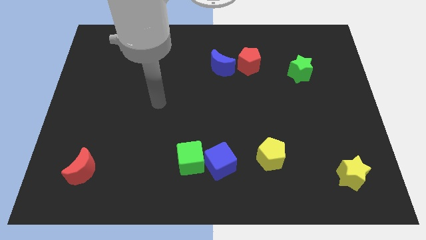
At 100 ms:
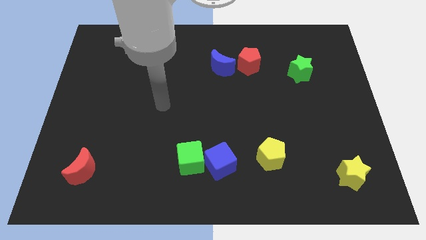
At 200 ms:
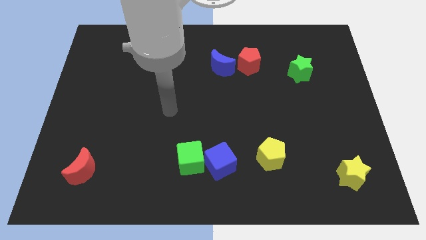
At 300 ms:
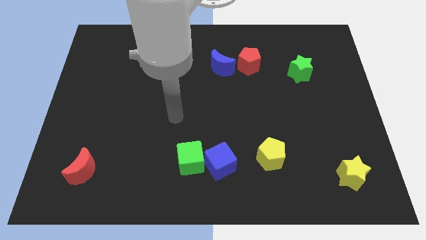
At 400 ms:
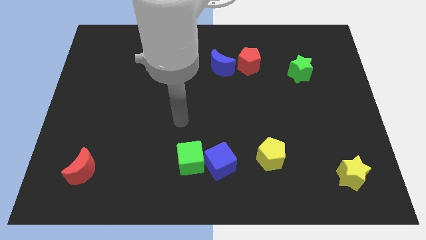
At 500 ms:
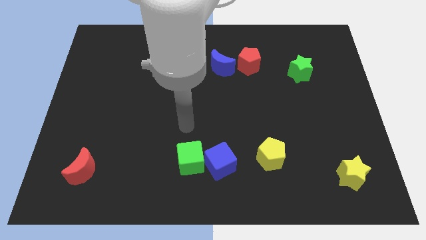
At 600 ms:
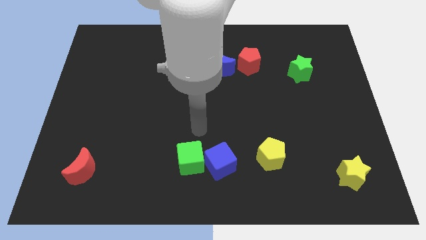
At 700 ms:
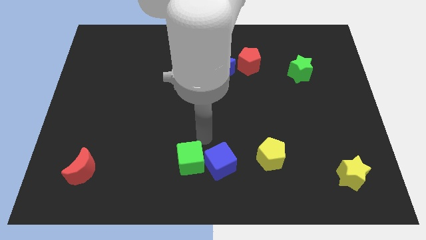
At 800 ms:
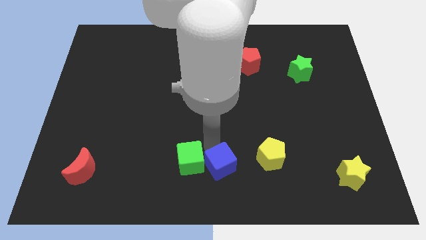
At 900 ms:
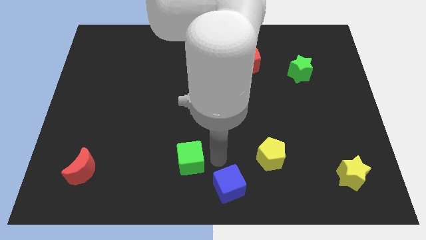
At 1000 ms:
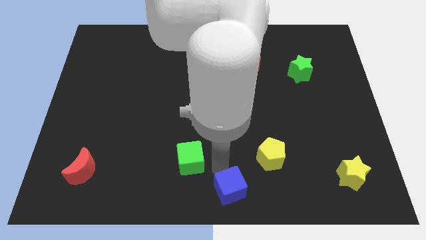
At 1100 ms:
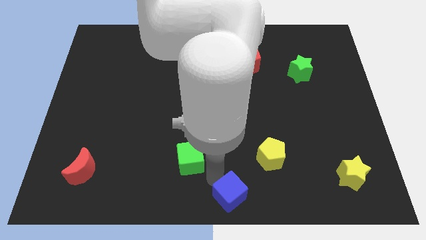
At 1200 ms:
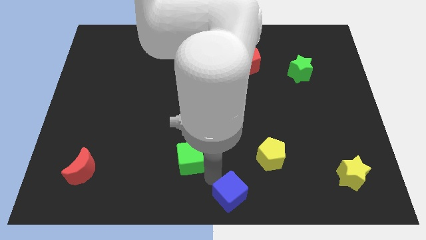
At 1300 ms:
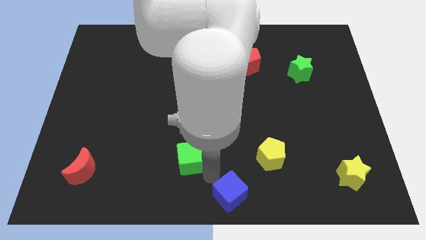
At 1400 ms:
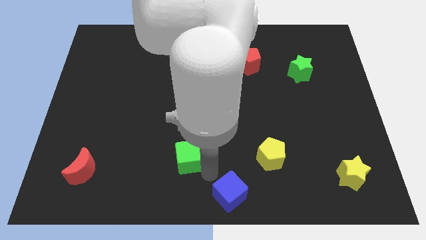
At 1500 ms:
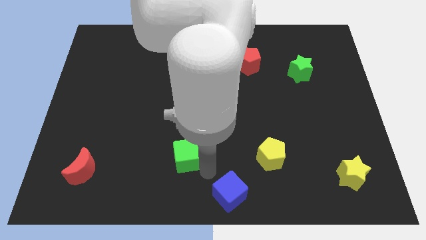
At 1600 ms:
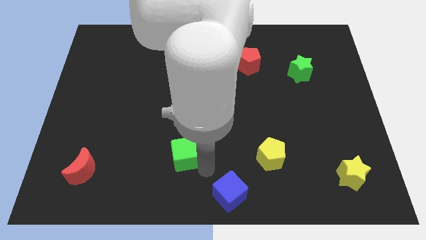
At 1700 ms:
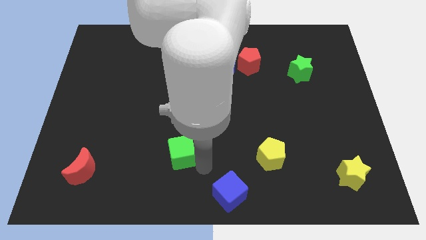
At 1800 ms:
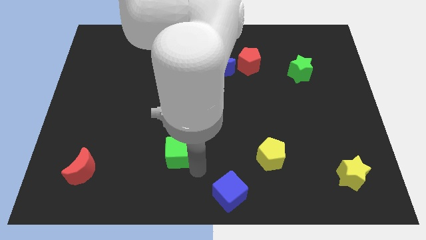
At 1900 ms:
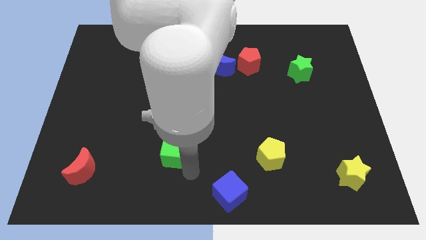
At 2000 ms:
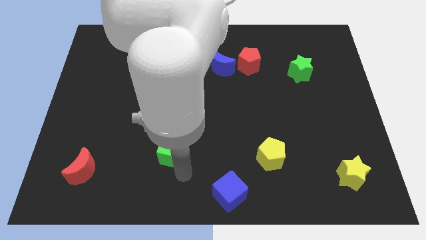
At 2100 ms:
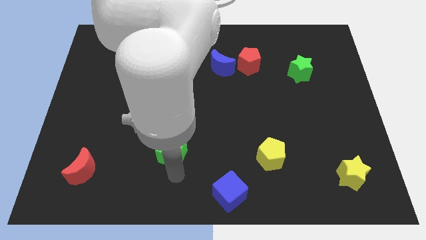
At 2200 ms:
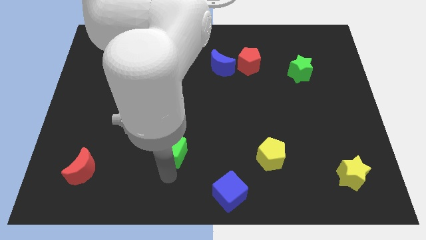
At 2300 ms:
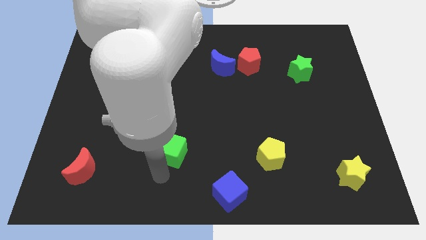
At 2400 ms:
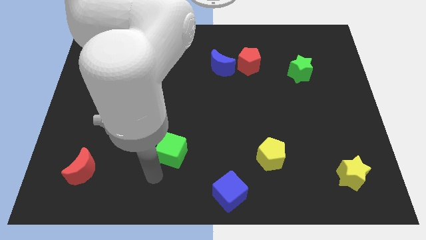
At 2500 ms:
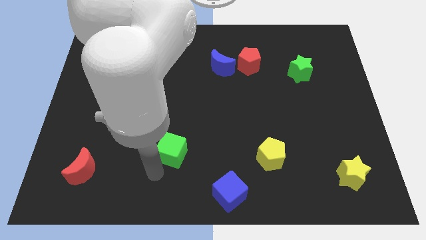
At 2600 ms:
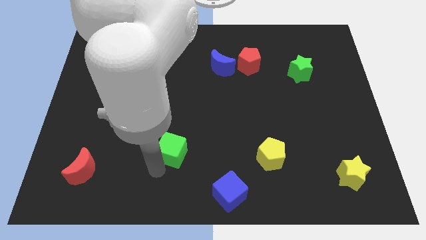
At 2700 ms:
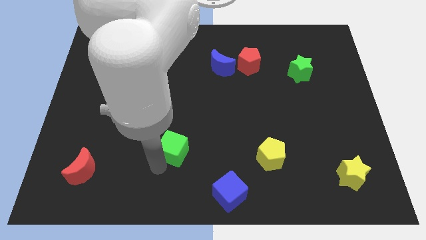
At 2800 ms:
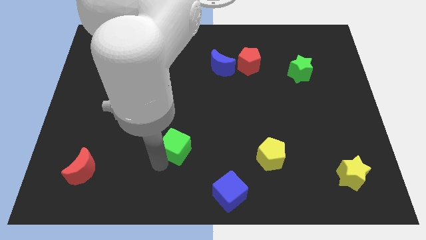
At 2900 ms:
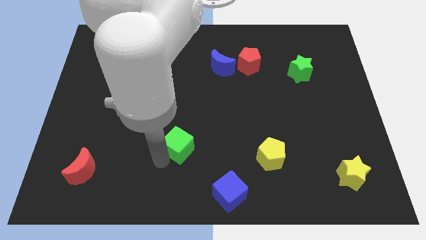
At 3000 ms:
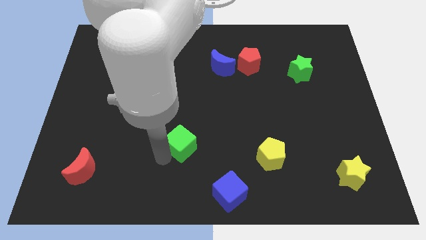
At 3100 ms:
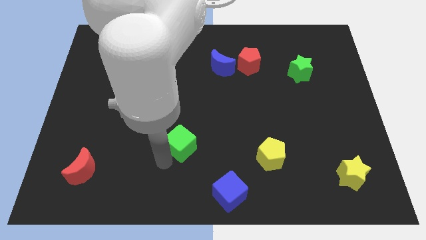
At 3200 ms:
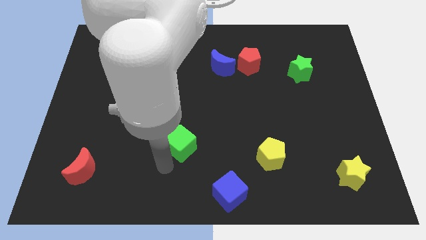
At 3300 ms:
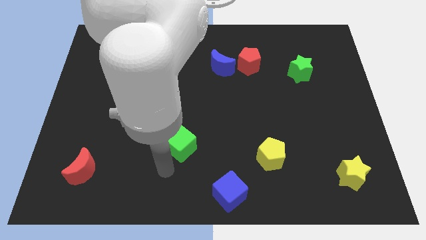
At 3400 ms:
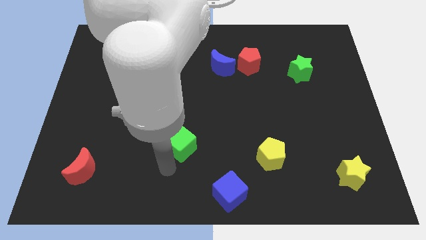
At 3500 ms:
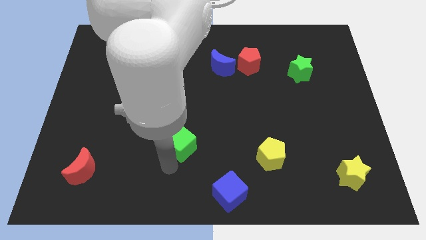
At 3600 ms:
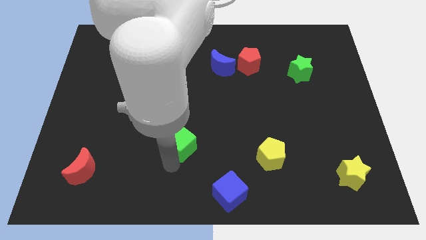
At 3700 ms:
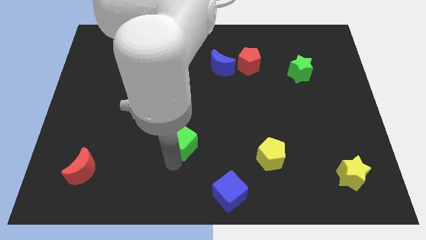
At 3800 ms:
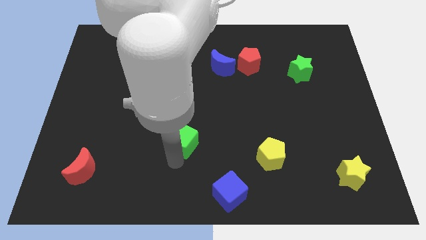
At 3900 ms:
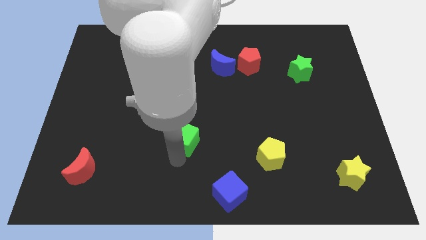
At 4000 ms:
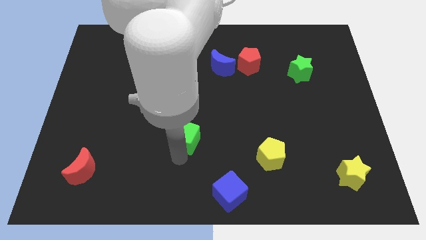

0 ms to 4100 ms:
move the green cube to the middle of the board

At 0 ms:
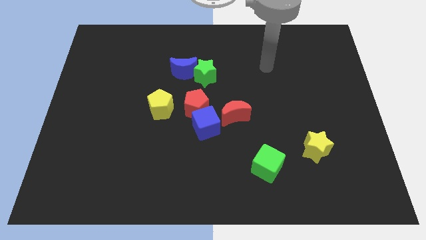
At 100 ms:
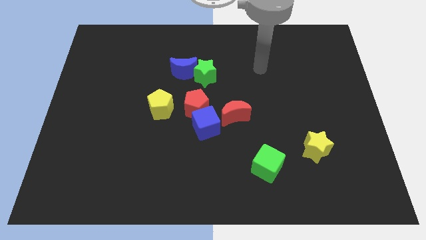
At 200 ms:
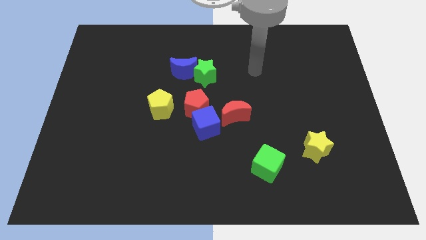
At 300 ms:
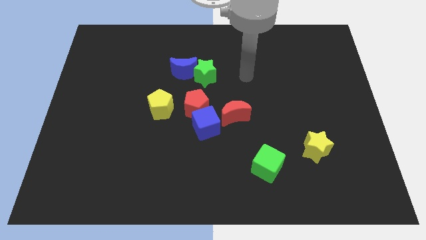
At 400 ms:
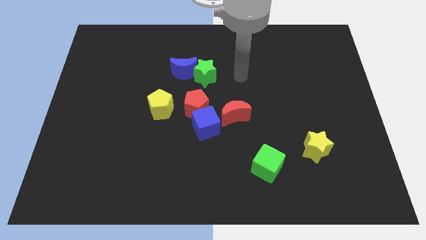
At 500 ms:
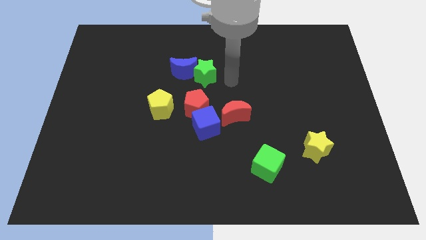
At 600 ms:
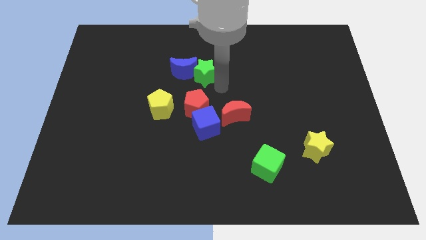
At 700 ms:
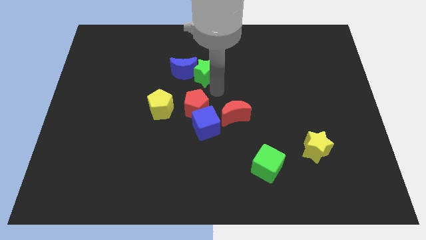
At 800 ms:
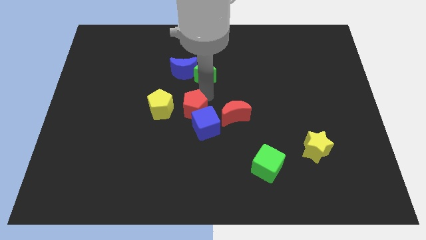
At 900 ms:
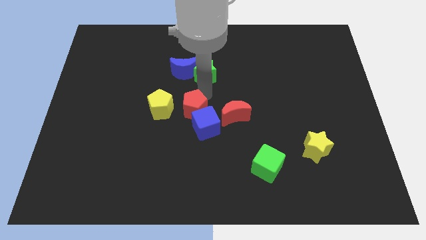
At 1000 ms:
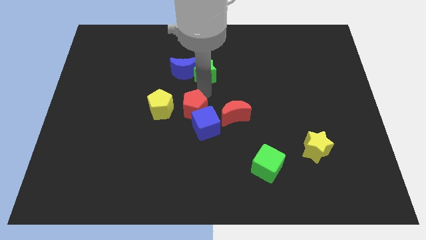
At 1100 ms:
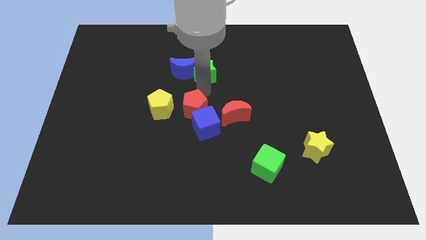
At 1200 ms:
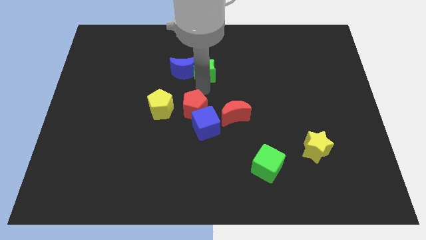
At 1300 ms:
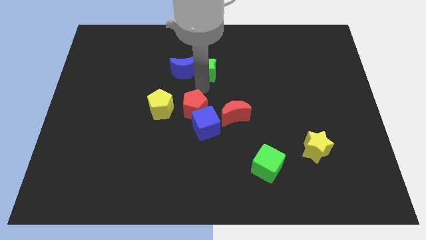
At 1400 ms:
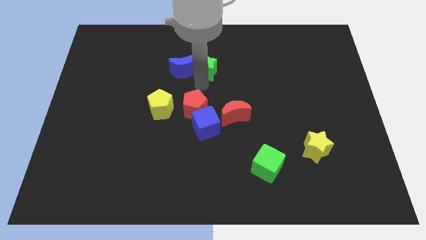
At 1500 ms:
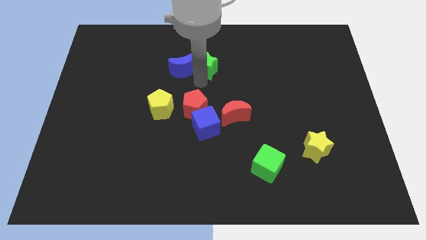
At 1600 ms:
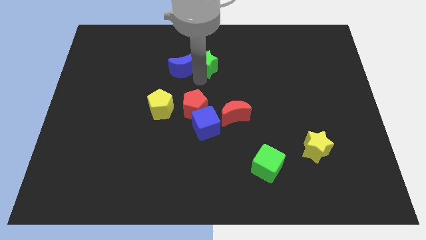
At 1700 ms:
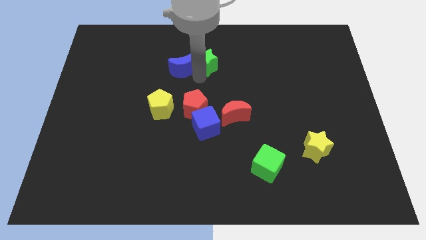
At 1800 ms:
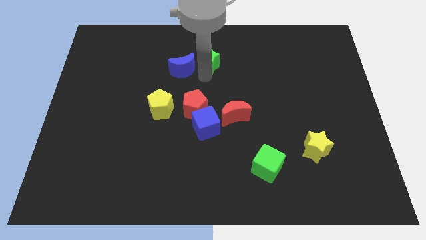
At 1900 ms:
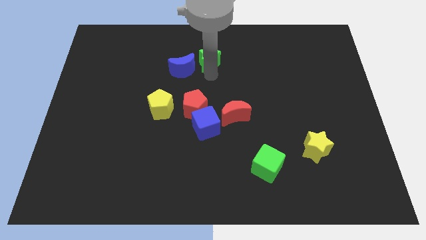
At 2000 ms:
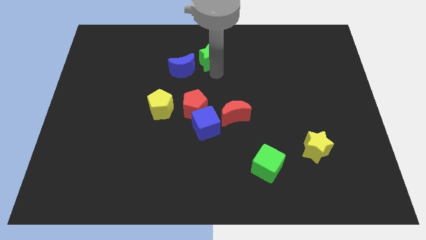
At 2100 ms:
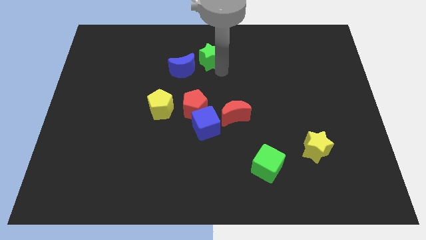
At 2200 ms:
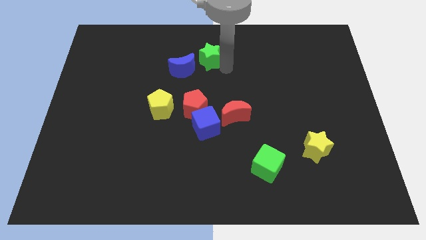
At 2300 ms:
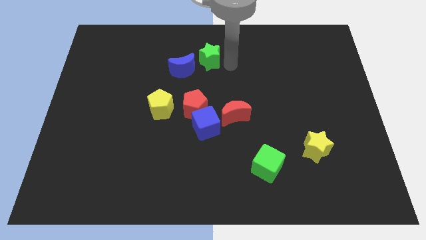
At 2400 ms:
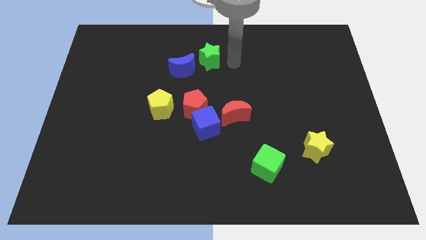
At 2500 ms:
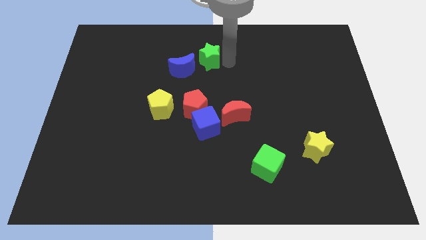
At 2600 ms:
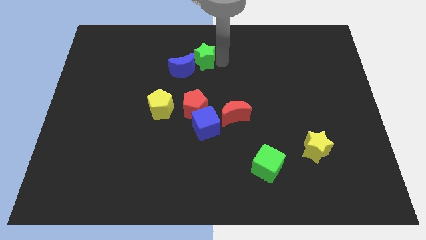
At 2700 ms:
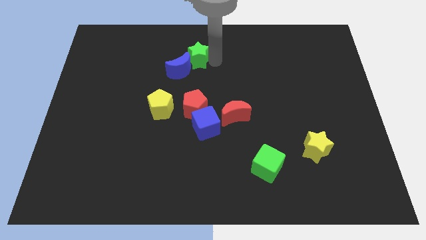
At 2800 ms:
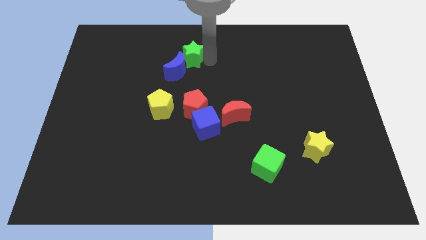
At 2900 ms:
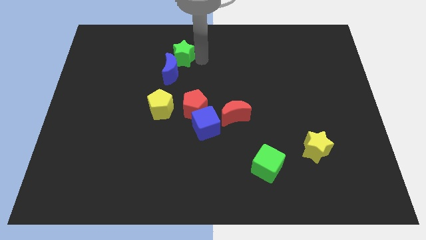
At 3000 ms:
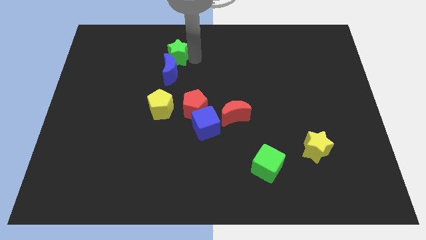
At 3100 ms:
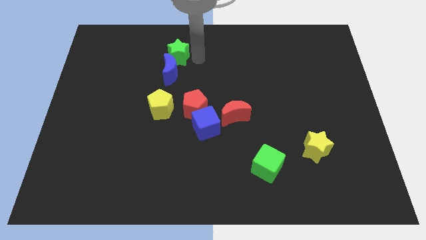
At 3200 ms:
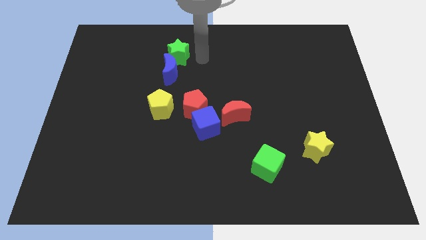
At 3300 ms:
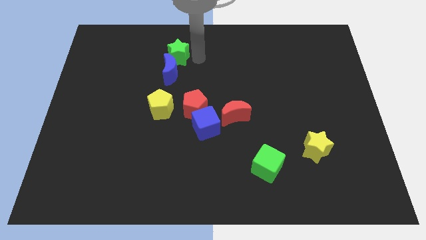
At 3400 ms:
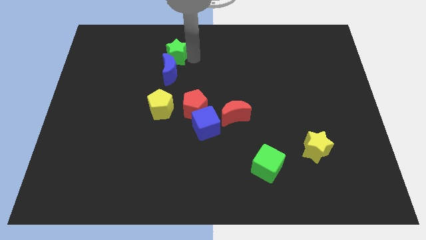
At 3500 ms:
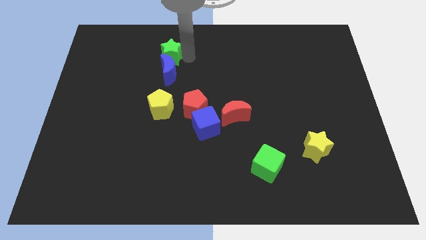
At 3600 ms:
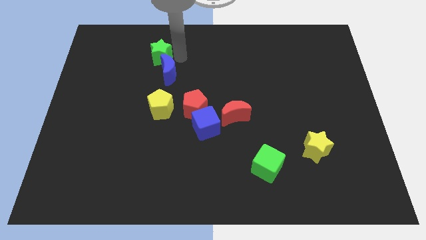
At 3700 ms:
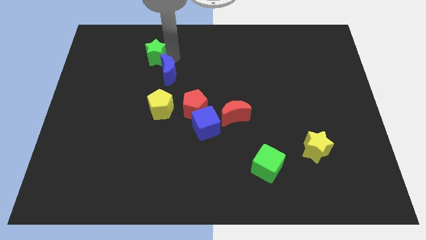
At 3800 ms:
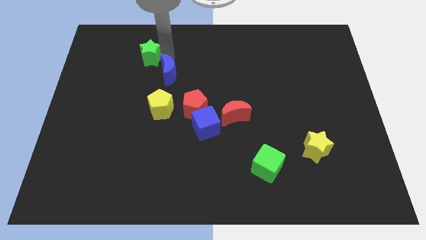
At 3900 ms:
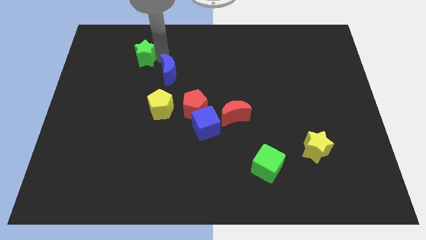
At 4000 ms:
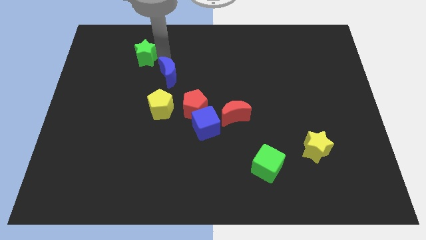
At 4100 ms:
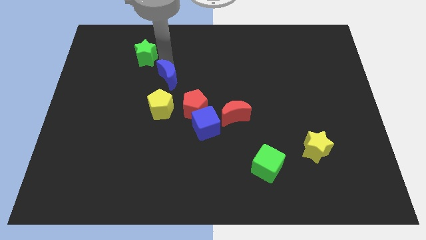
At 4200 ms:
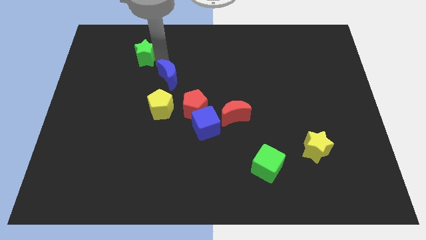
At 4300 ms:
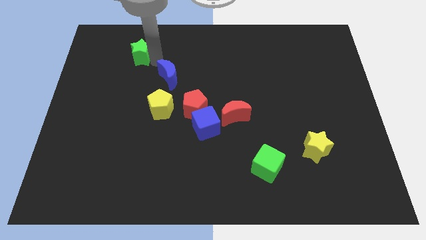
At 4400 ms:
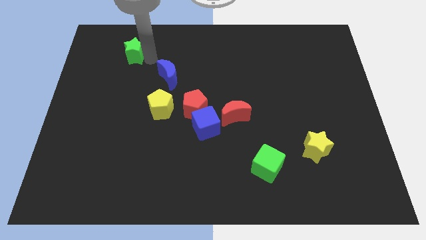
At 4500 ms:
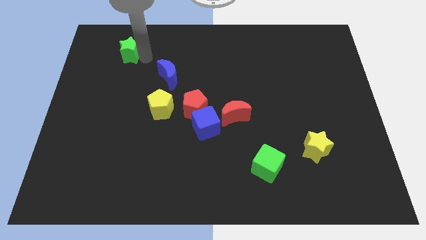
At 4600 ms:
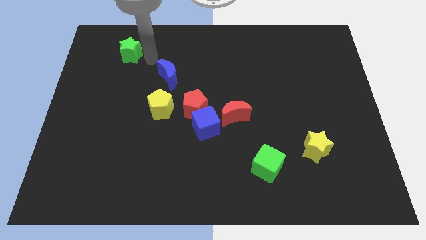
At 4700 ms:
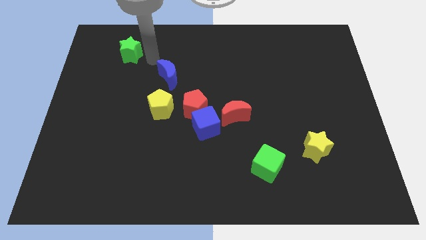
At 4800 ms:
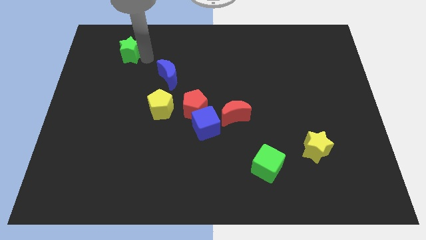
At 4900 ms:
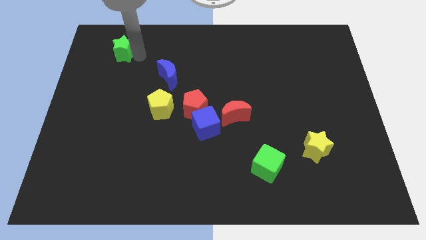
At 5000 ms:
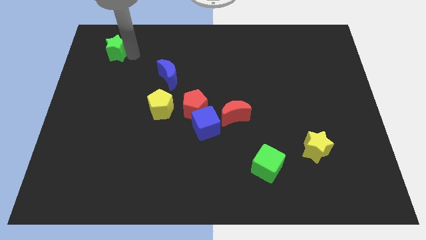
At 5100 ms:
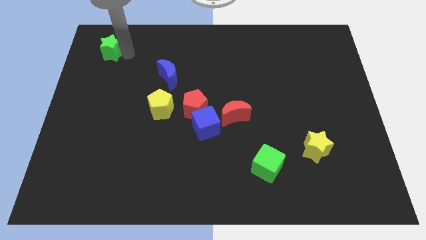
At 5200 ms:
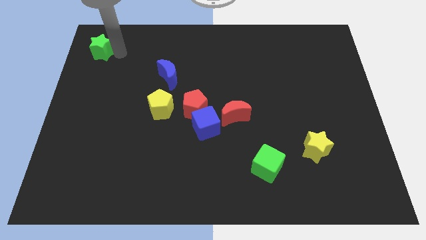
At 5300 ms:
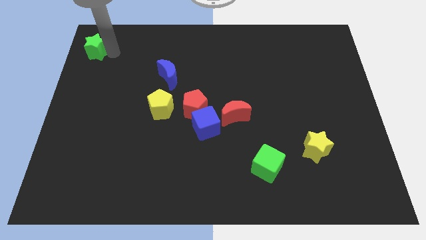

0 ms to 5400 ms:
put the green star to the top left of the board
